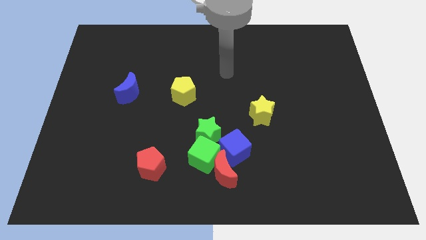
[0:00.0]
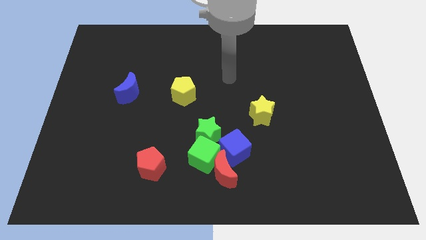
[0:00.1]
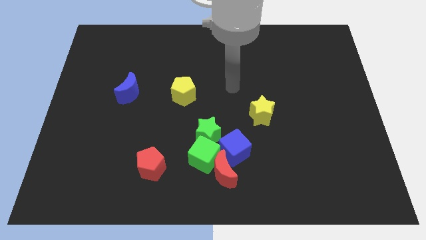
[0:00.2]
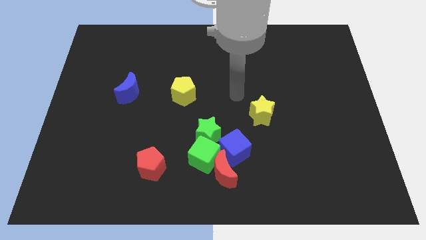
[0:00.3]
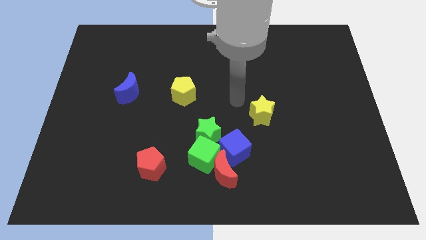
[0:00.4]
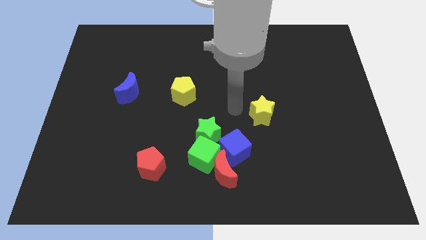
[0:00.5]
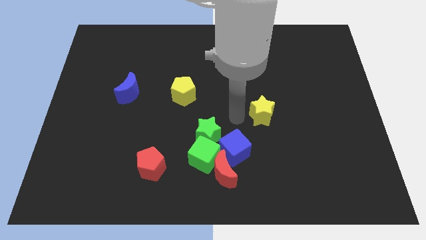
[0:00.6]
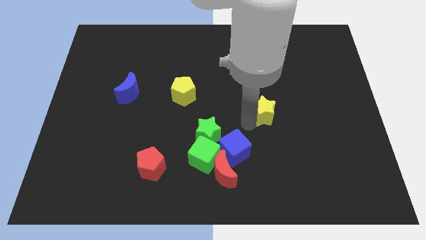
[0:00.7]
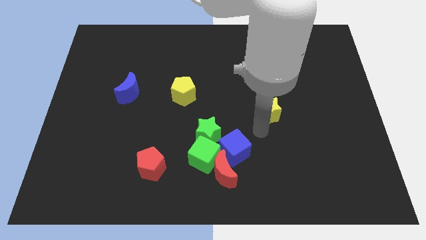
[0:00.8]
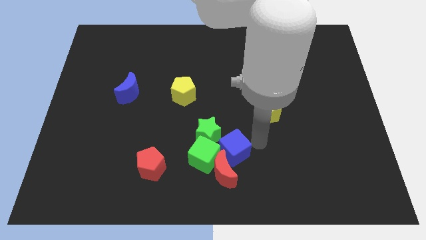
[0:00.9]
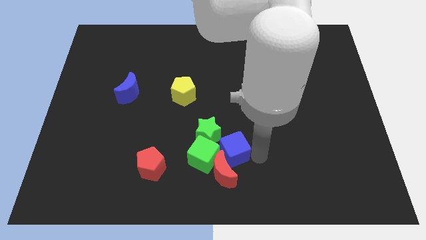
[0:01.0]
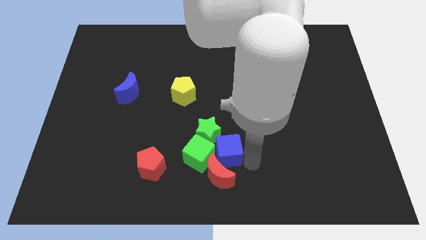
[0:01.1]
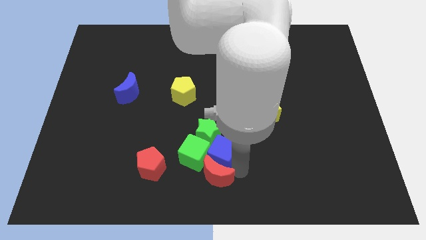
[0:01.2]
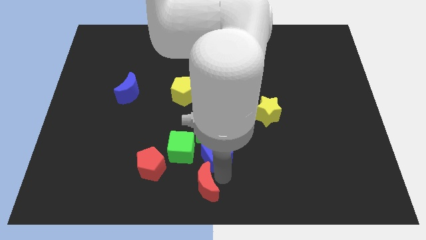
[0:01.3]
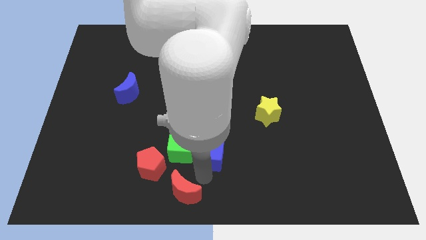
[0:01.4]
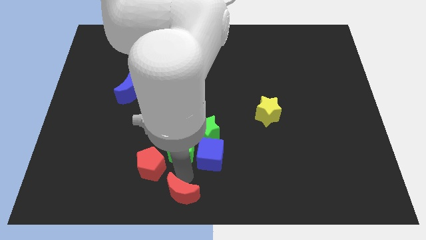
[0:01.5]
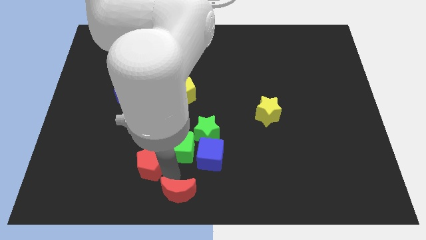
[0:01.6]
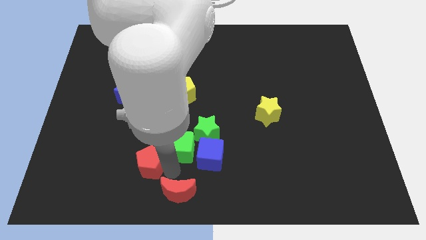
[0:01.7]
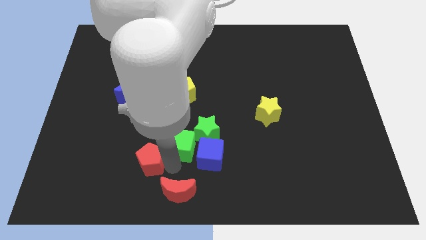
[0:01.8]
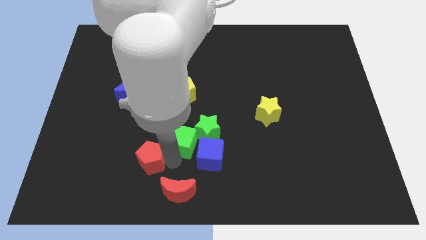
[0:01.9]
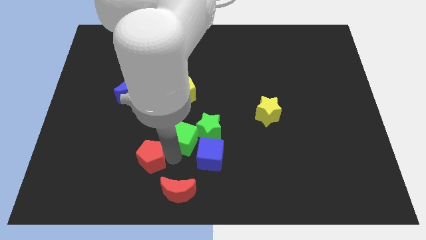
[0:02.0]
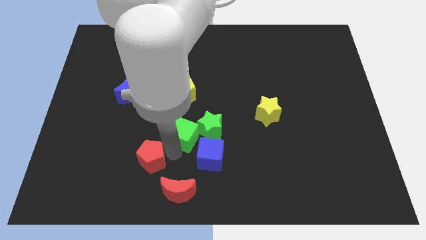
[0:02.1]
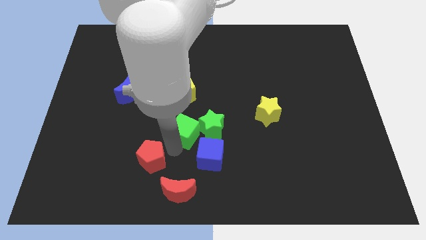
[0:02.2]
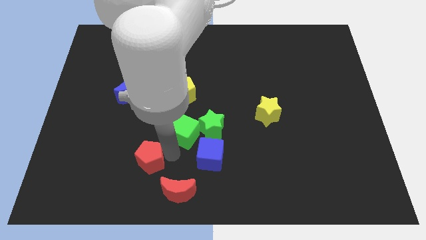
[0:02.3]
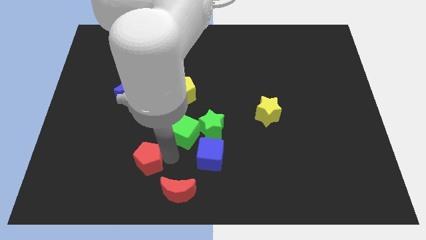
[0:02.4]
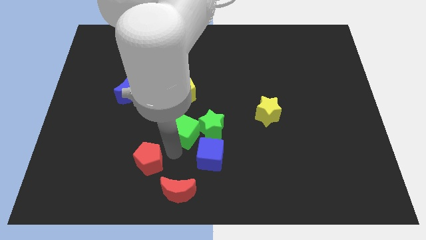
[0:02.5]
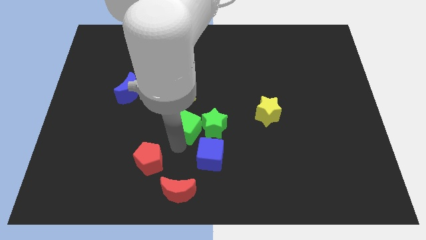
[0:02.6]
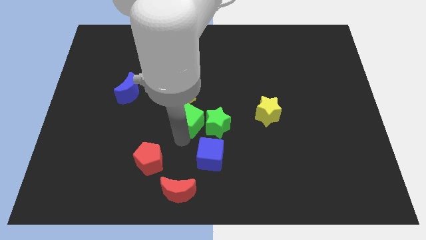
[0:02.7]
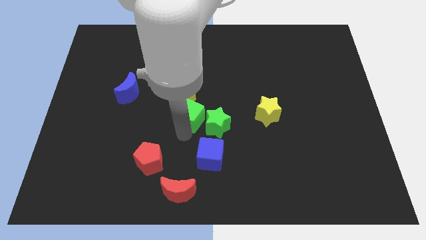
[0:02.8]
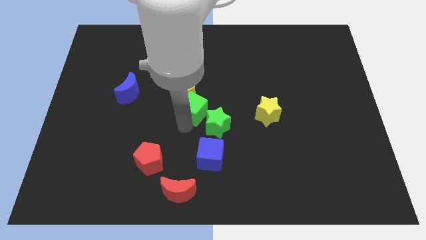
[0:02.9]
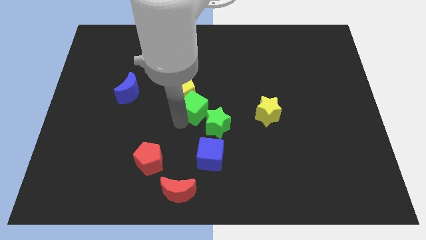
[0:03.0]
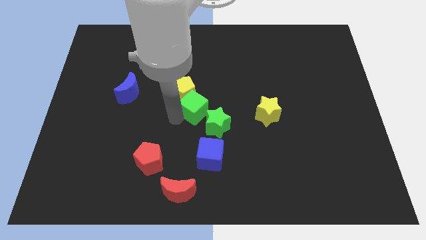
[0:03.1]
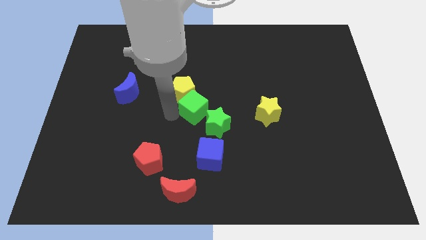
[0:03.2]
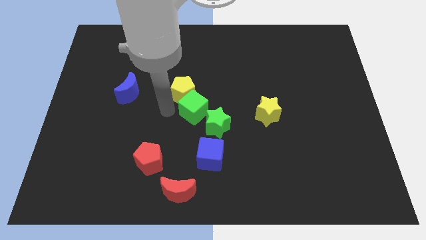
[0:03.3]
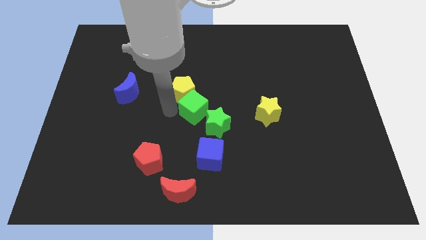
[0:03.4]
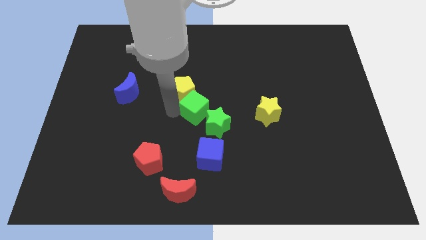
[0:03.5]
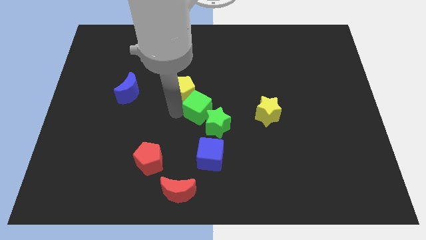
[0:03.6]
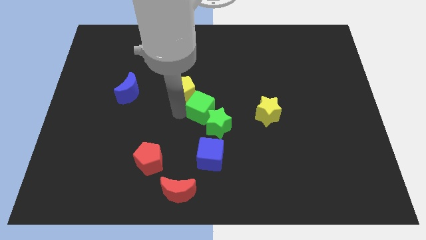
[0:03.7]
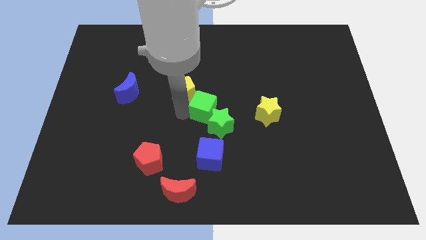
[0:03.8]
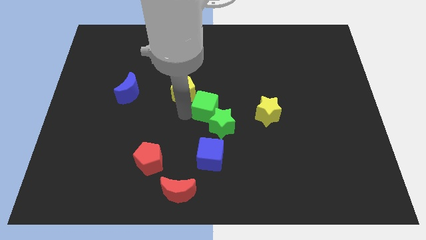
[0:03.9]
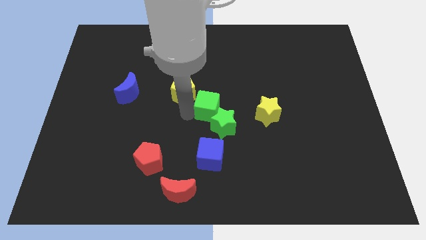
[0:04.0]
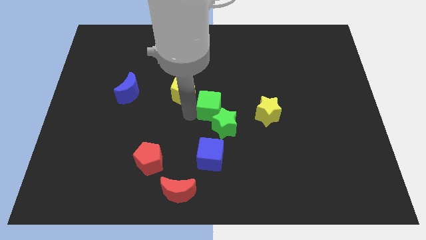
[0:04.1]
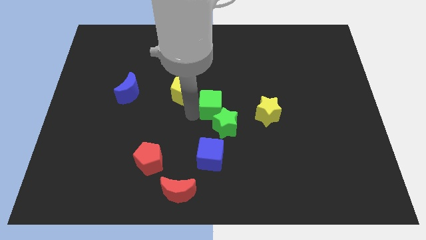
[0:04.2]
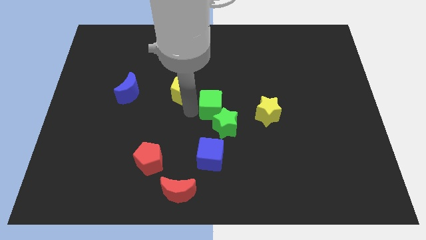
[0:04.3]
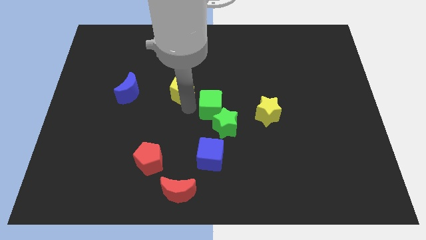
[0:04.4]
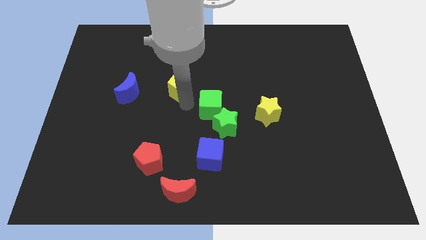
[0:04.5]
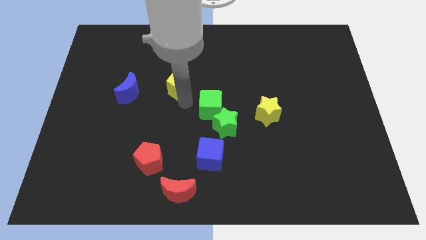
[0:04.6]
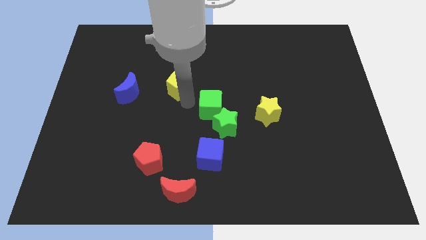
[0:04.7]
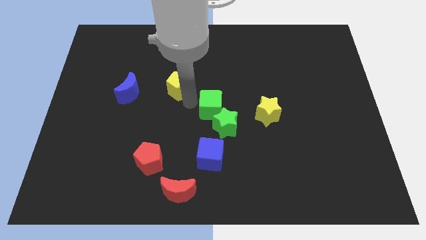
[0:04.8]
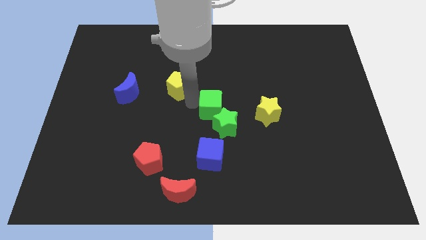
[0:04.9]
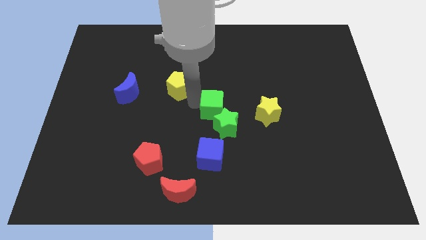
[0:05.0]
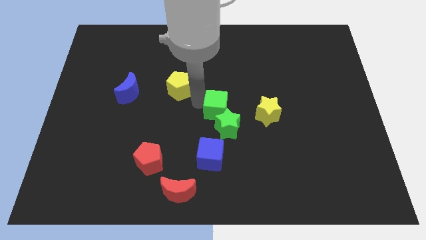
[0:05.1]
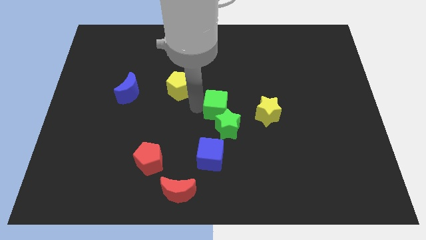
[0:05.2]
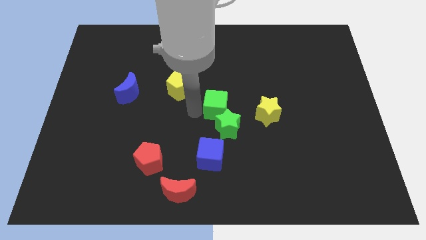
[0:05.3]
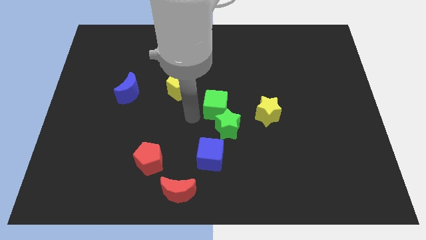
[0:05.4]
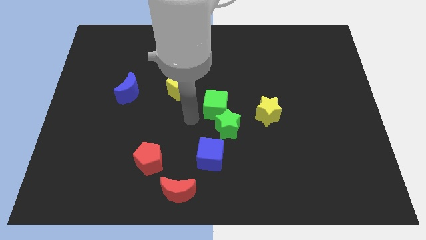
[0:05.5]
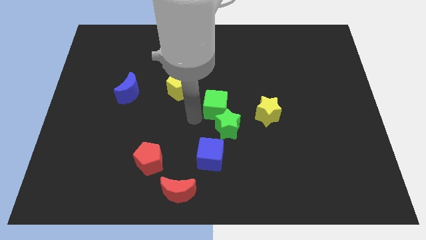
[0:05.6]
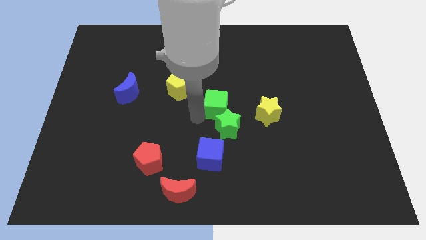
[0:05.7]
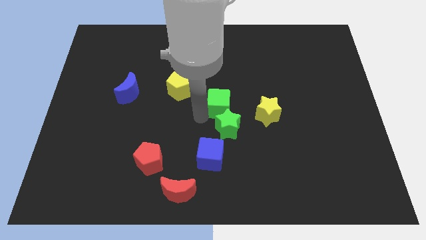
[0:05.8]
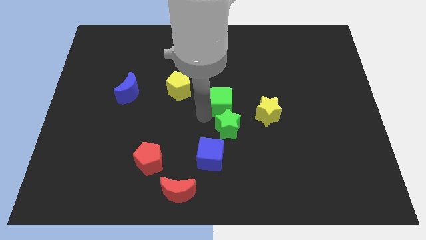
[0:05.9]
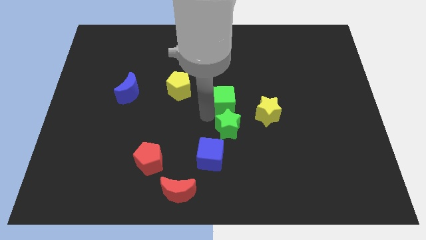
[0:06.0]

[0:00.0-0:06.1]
move the green cube to the top left side of the yellow star
